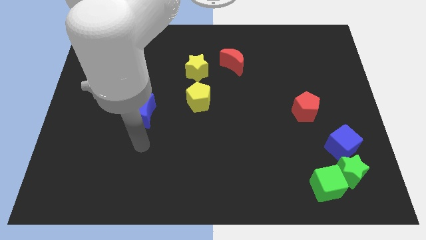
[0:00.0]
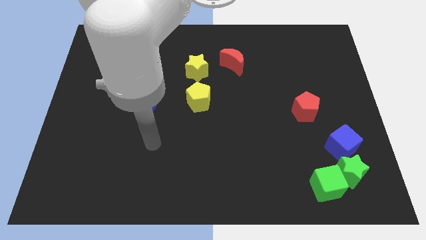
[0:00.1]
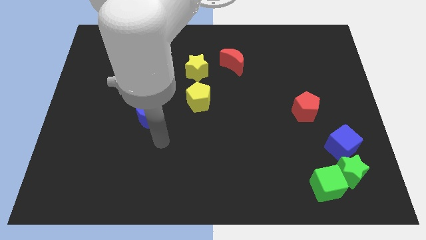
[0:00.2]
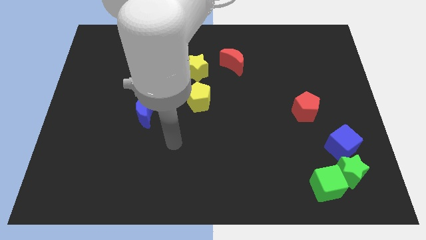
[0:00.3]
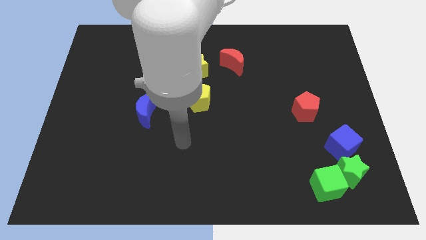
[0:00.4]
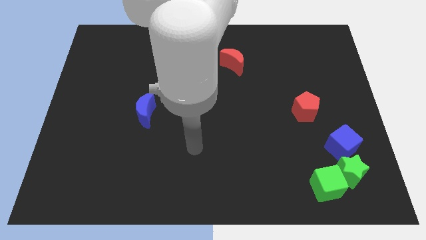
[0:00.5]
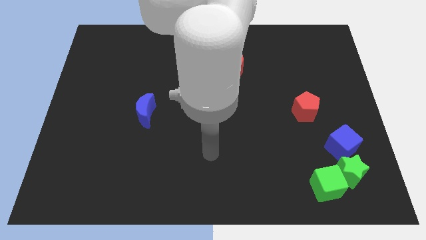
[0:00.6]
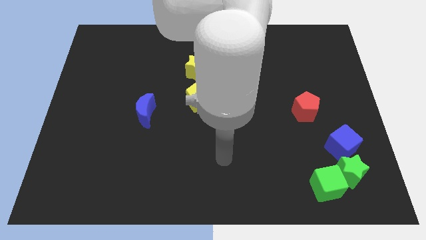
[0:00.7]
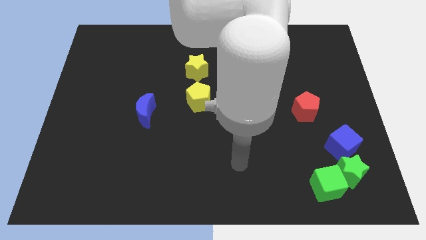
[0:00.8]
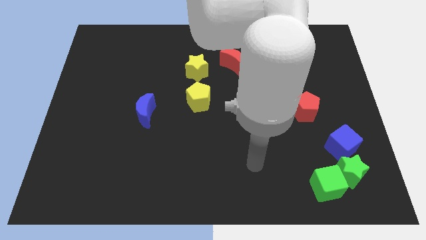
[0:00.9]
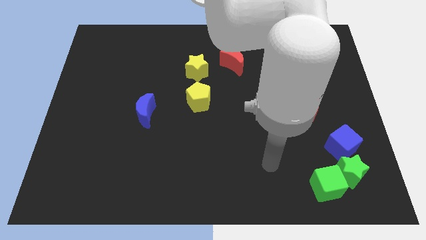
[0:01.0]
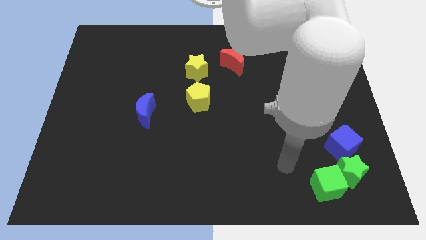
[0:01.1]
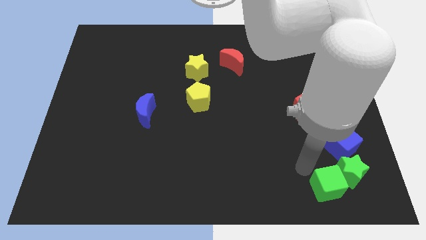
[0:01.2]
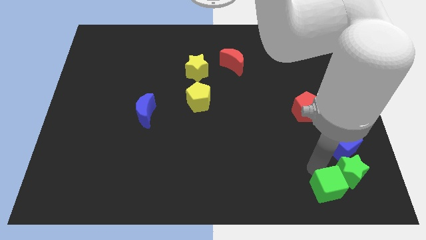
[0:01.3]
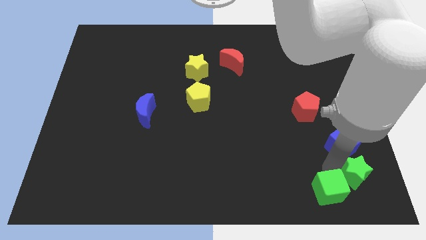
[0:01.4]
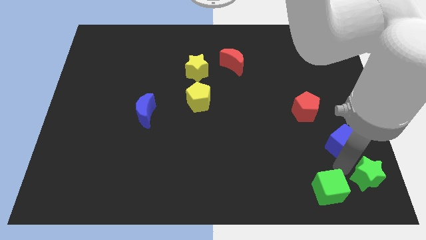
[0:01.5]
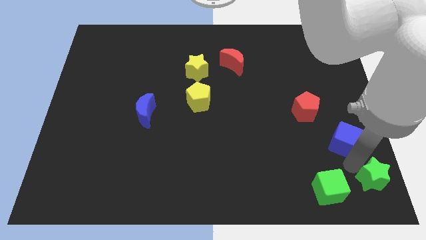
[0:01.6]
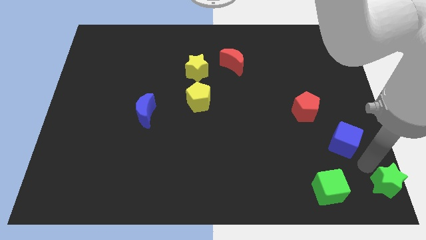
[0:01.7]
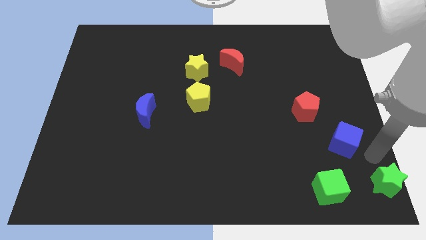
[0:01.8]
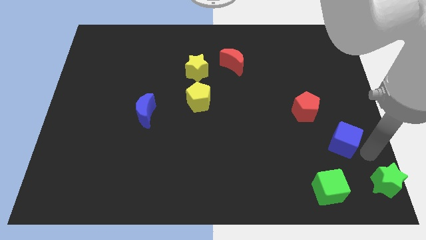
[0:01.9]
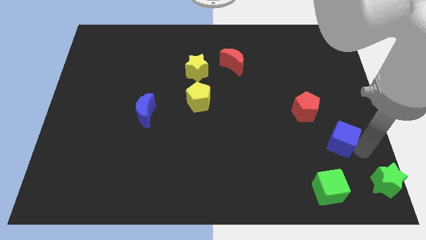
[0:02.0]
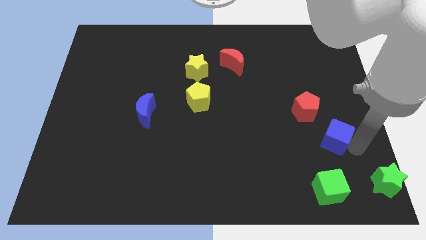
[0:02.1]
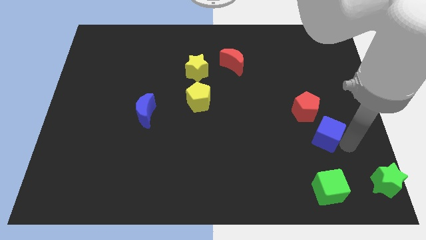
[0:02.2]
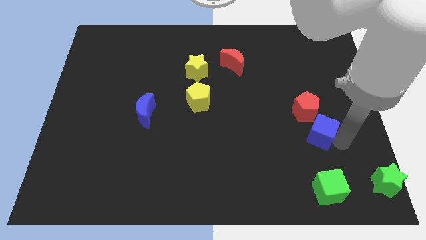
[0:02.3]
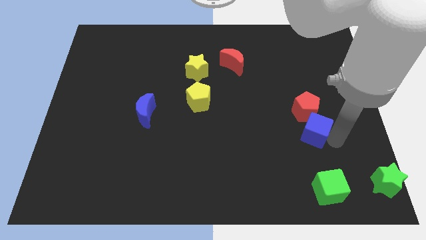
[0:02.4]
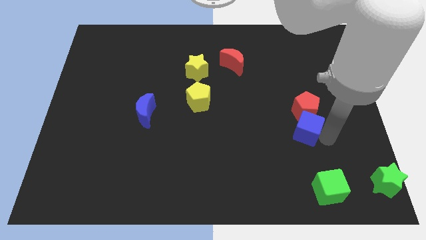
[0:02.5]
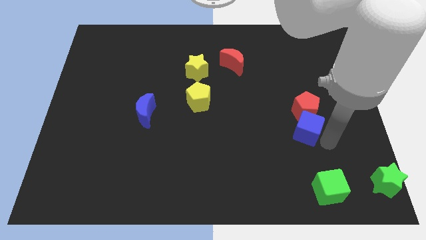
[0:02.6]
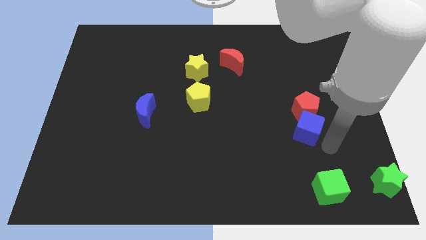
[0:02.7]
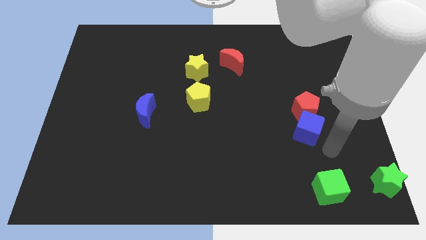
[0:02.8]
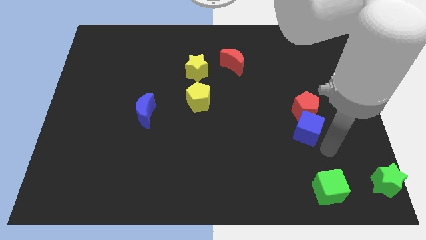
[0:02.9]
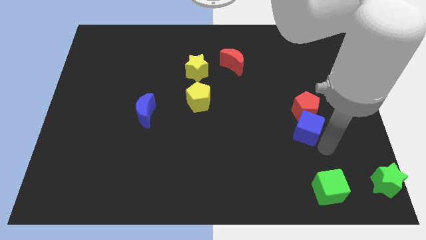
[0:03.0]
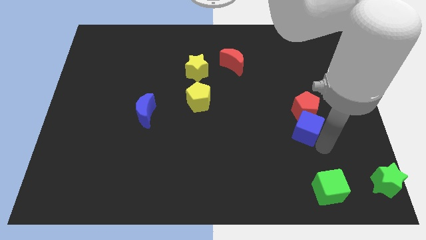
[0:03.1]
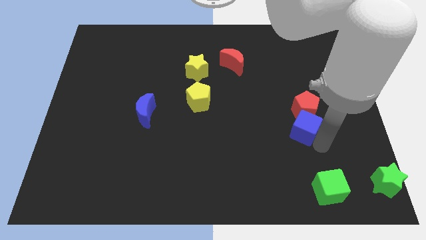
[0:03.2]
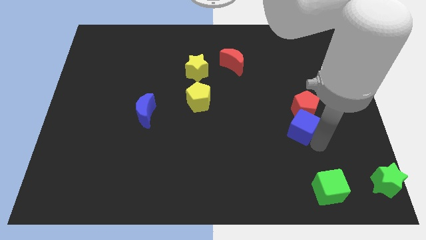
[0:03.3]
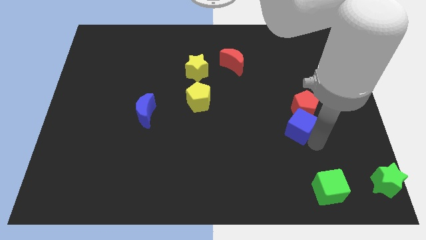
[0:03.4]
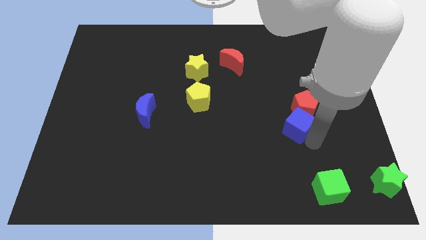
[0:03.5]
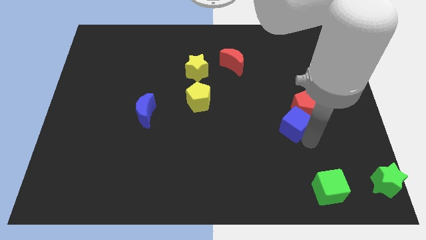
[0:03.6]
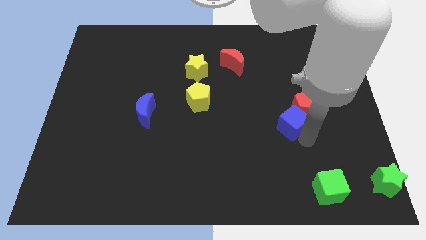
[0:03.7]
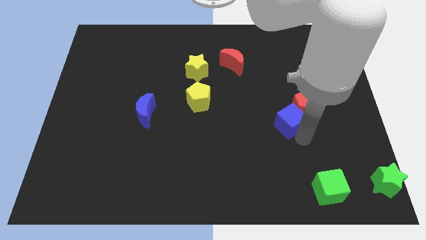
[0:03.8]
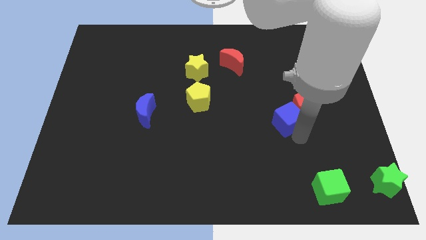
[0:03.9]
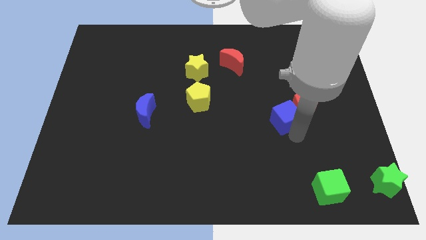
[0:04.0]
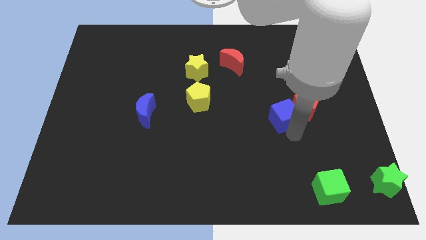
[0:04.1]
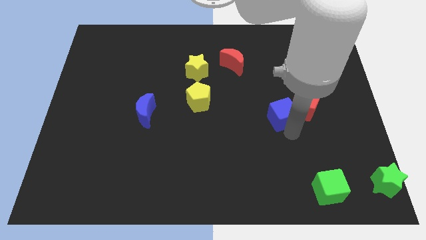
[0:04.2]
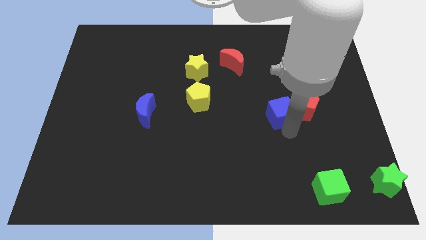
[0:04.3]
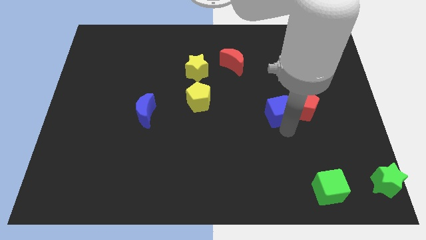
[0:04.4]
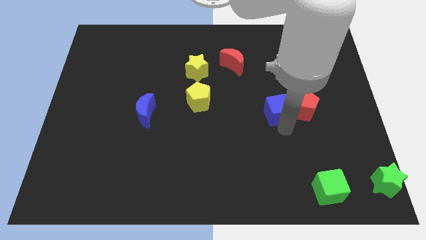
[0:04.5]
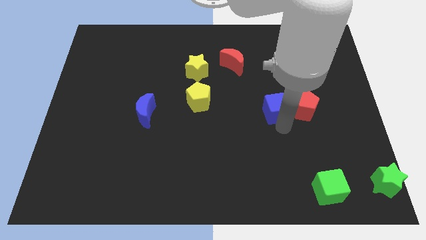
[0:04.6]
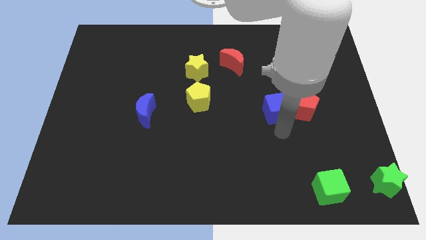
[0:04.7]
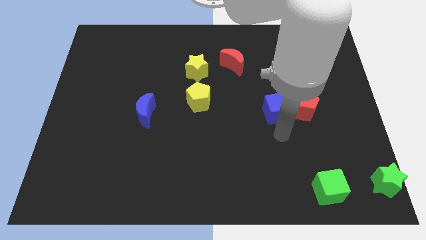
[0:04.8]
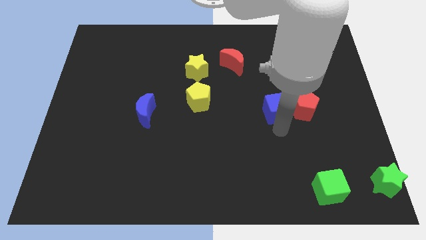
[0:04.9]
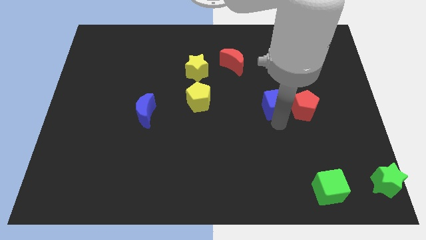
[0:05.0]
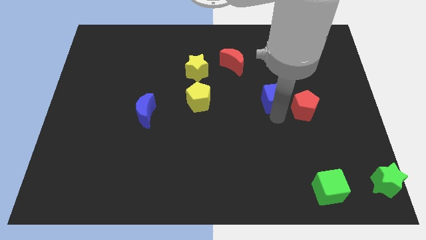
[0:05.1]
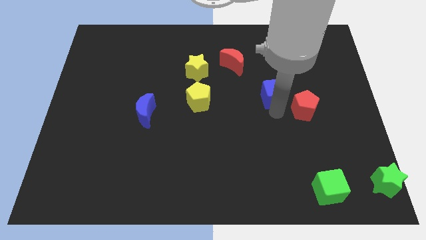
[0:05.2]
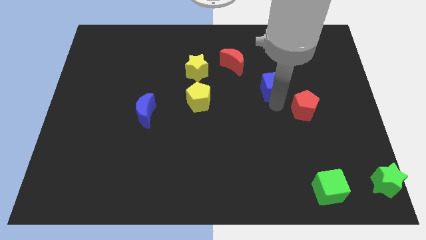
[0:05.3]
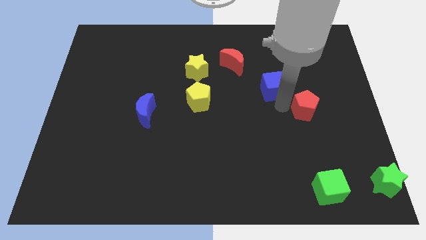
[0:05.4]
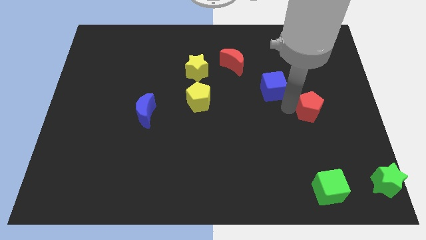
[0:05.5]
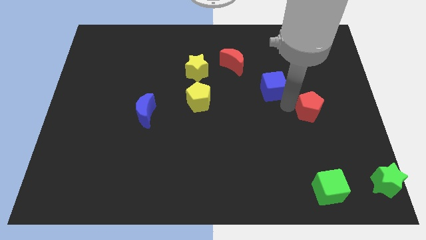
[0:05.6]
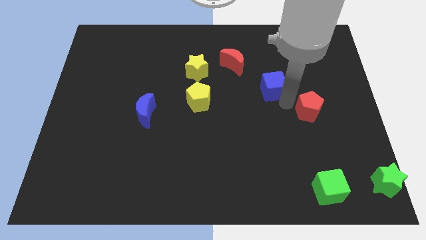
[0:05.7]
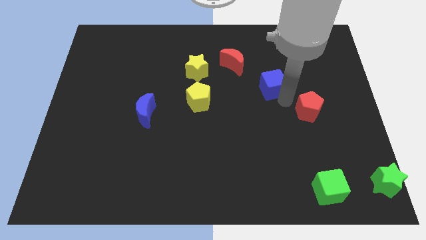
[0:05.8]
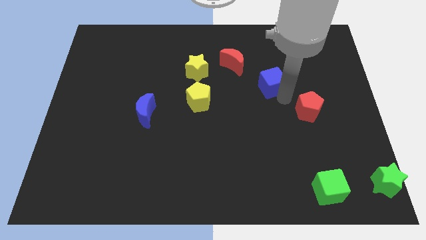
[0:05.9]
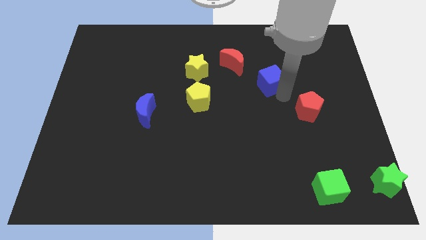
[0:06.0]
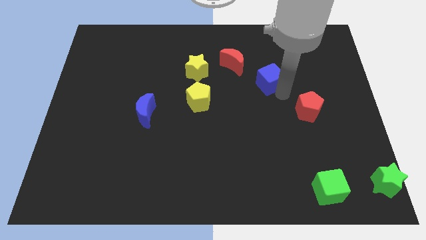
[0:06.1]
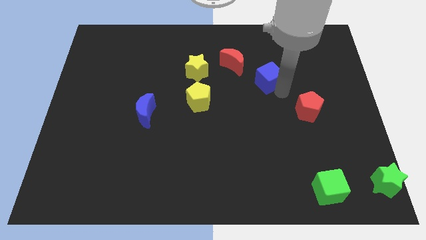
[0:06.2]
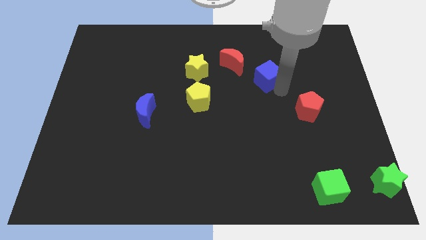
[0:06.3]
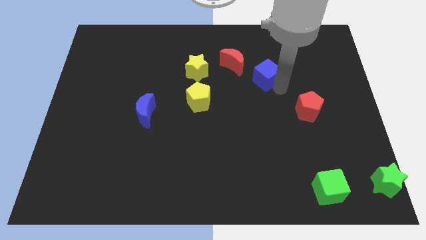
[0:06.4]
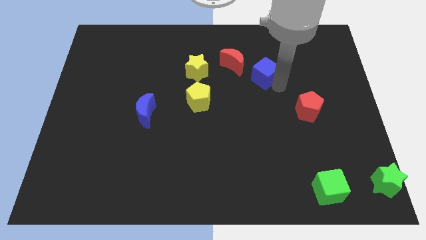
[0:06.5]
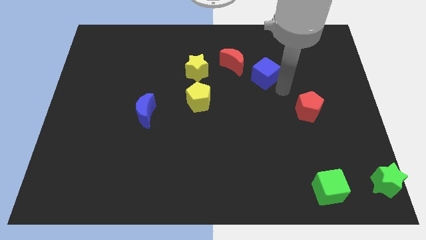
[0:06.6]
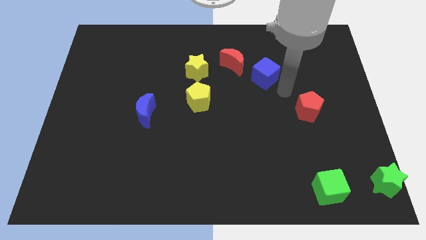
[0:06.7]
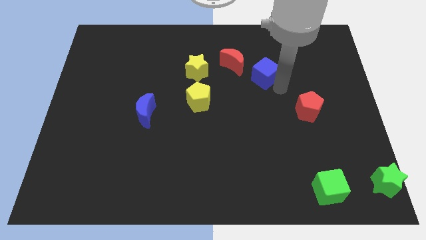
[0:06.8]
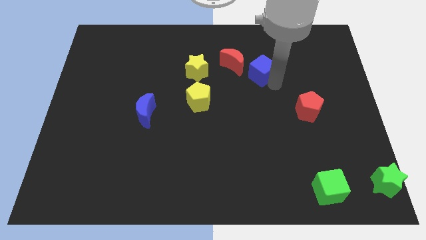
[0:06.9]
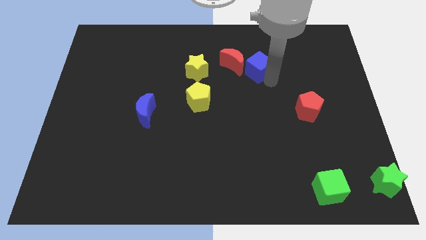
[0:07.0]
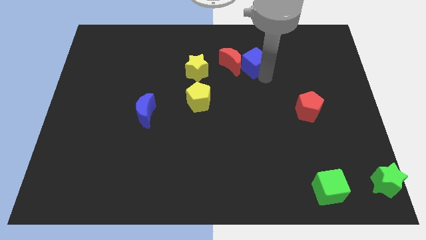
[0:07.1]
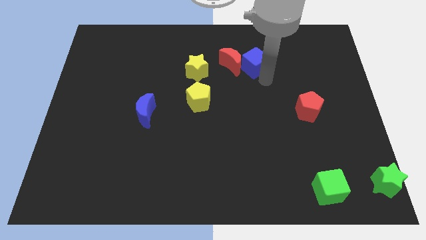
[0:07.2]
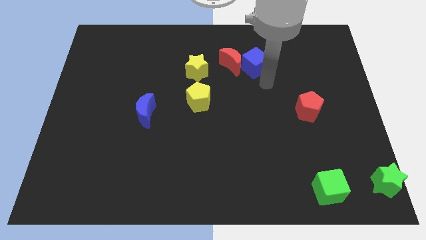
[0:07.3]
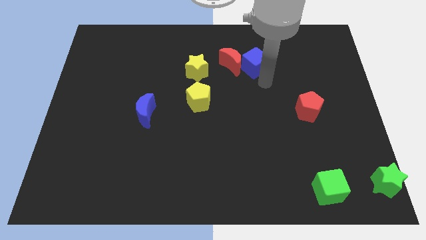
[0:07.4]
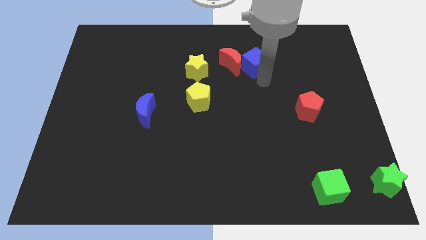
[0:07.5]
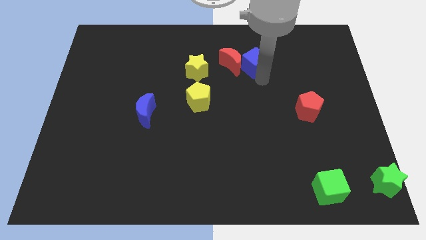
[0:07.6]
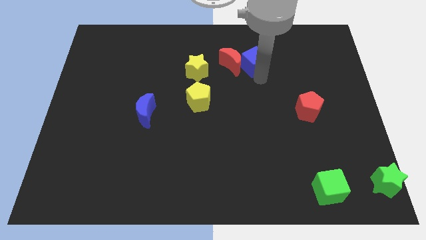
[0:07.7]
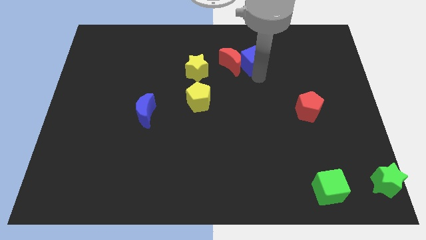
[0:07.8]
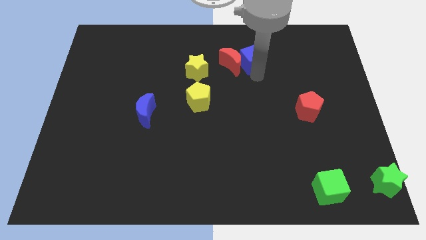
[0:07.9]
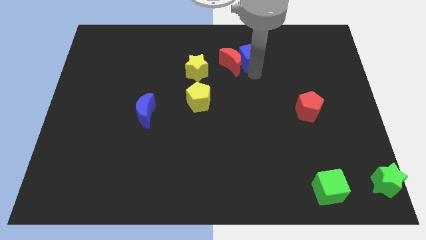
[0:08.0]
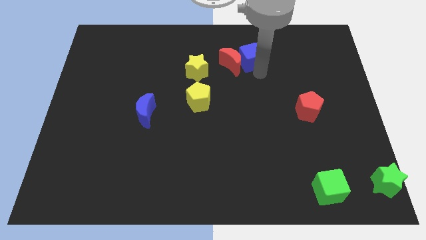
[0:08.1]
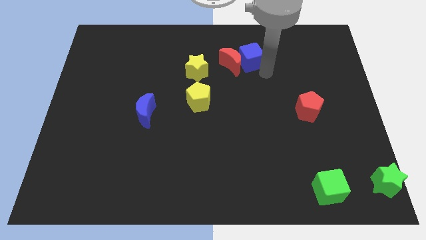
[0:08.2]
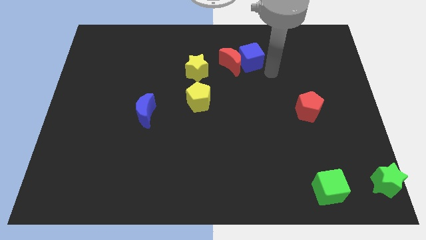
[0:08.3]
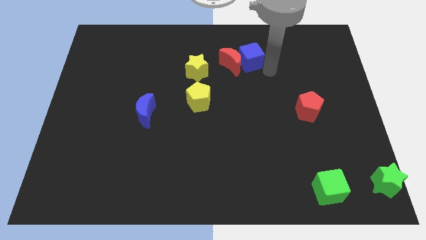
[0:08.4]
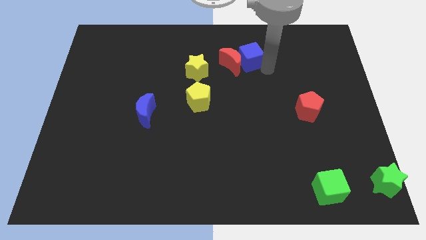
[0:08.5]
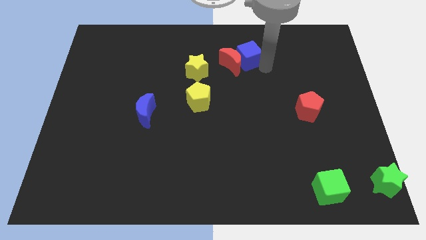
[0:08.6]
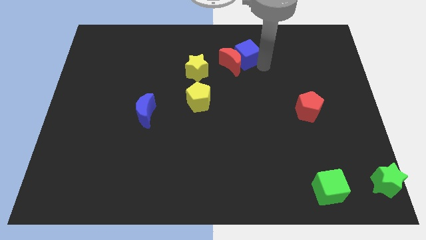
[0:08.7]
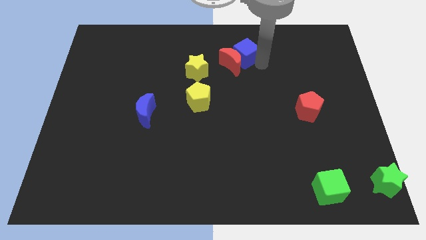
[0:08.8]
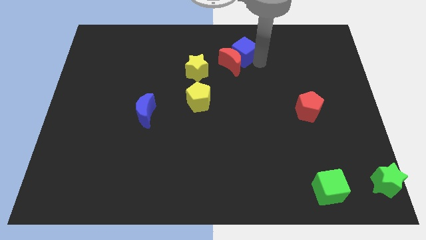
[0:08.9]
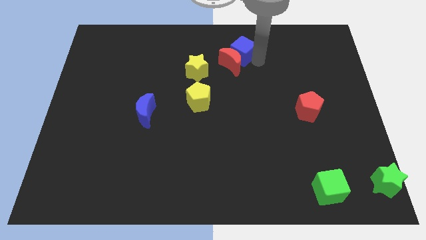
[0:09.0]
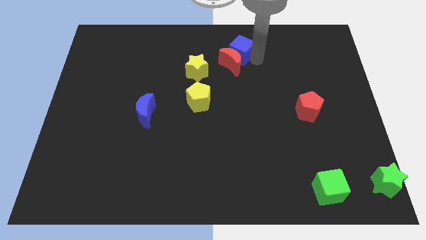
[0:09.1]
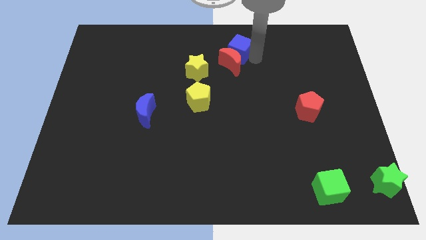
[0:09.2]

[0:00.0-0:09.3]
put the blue cube to the towards your base
